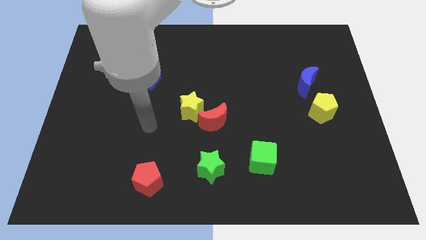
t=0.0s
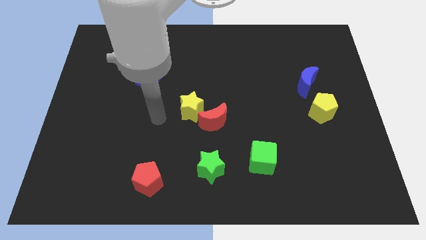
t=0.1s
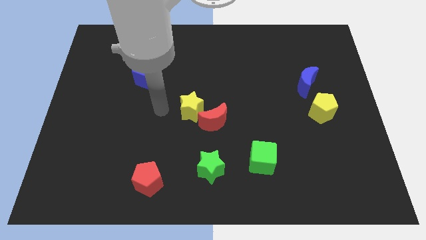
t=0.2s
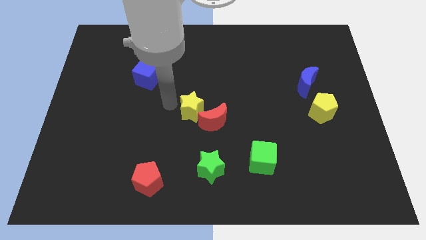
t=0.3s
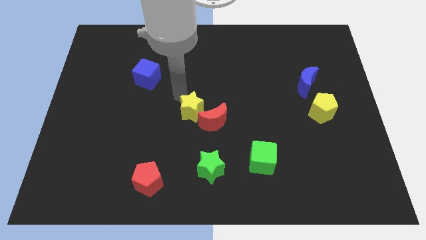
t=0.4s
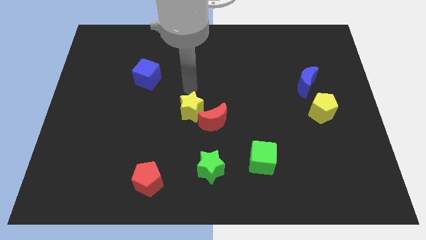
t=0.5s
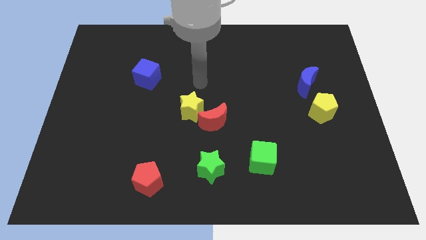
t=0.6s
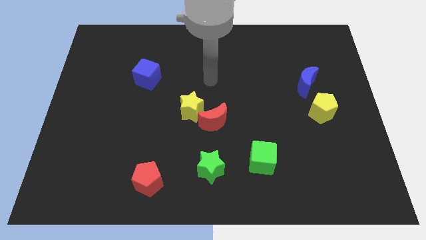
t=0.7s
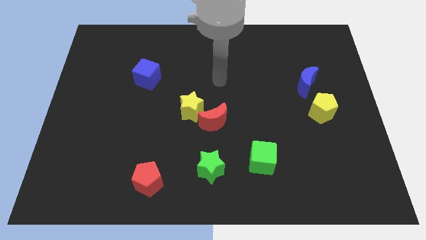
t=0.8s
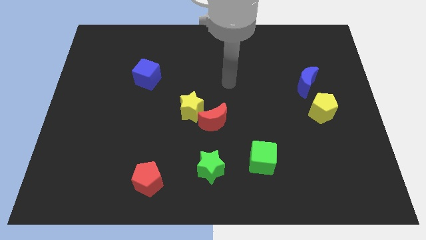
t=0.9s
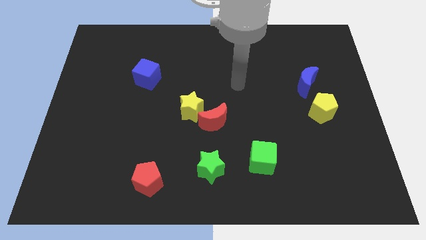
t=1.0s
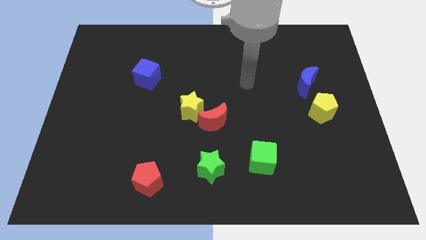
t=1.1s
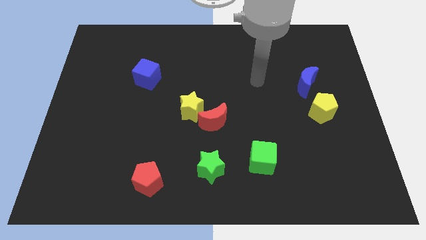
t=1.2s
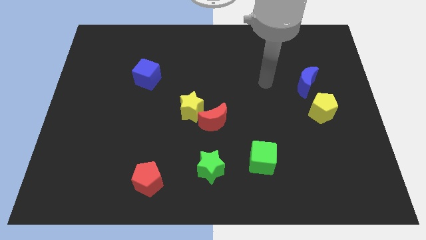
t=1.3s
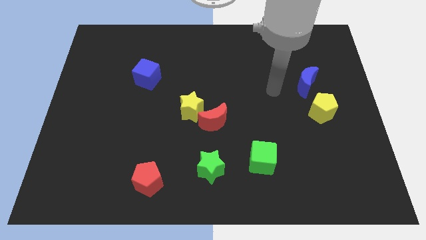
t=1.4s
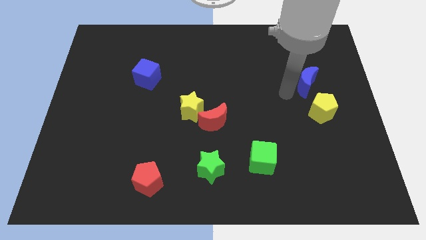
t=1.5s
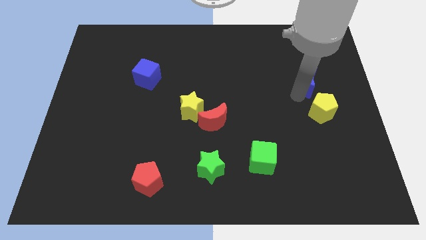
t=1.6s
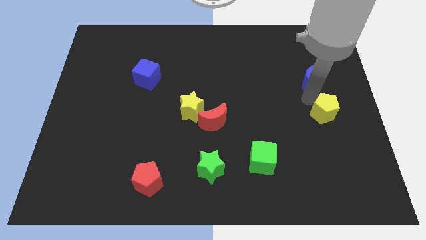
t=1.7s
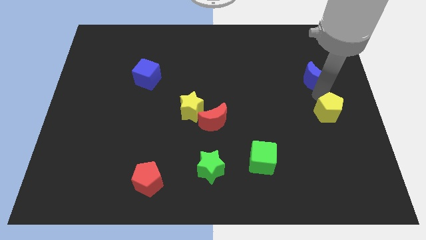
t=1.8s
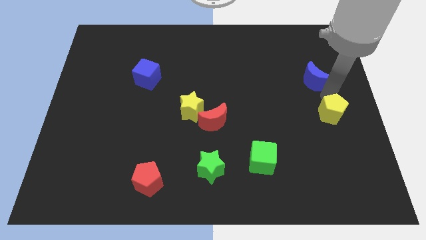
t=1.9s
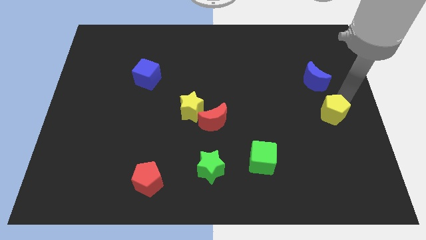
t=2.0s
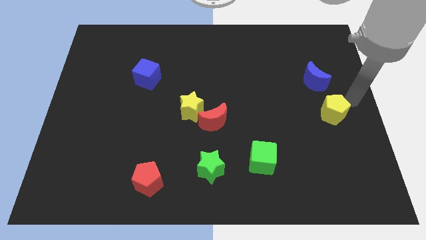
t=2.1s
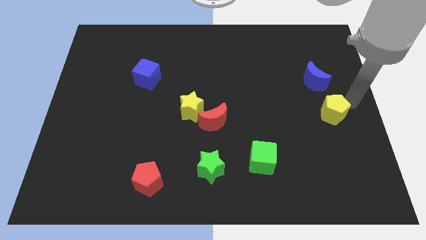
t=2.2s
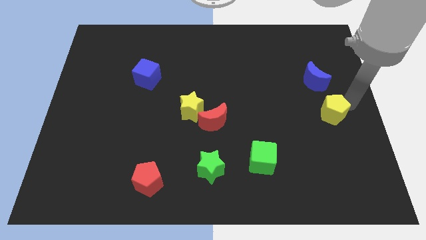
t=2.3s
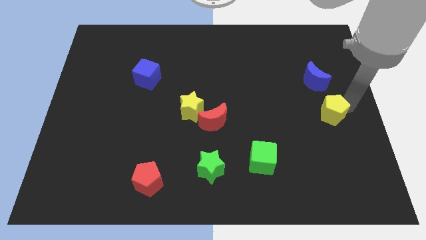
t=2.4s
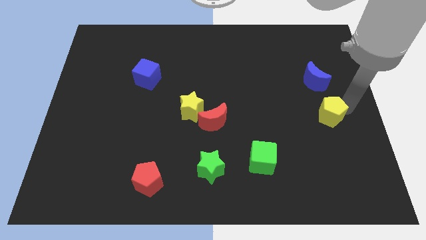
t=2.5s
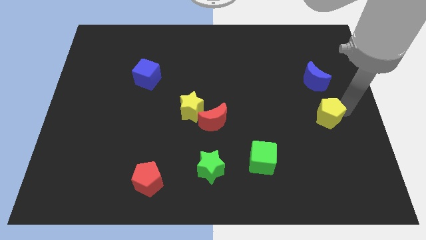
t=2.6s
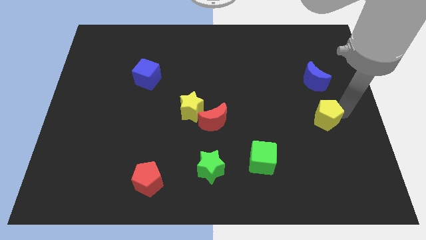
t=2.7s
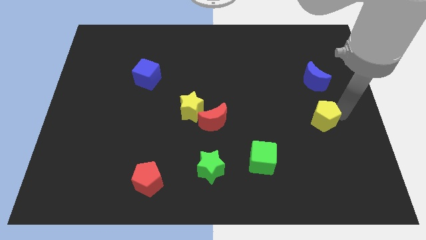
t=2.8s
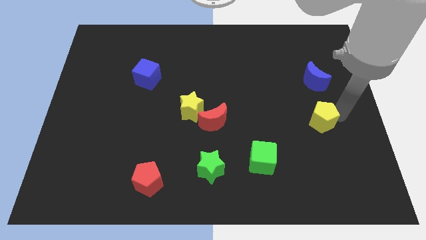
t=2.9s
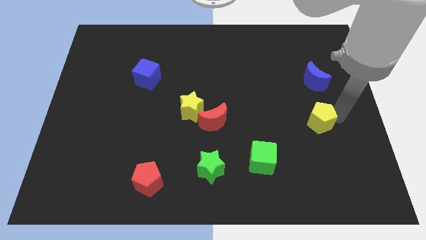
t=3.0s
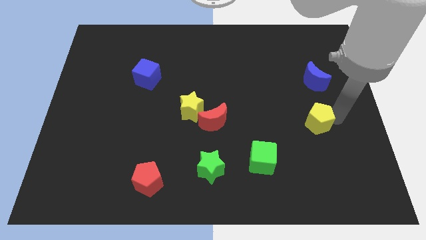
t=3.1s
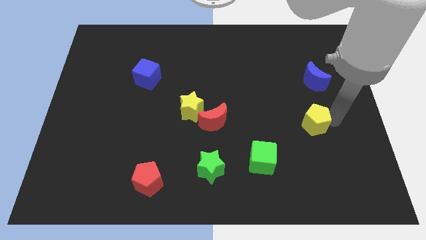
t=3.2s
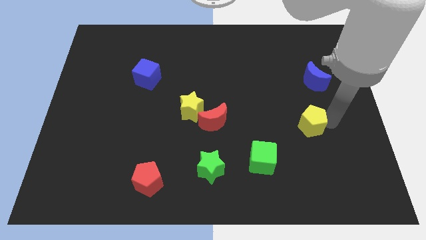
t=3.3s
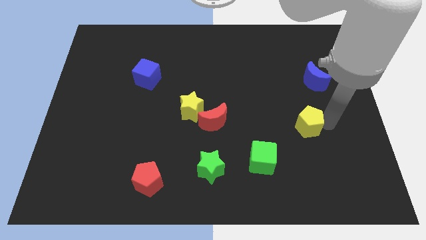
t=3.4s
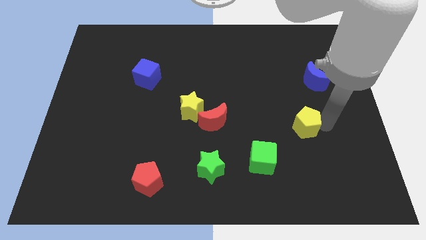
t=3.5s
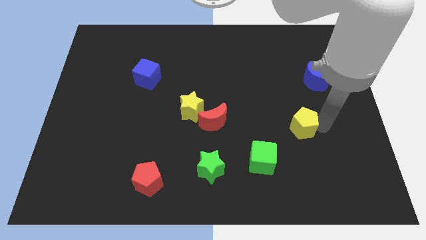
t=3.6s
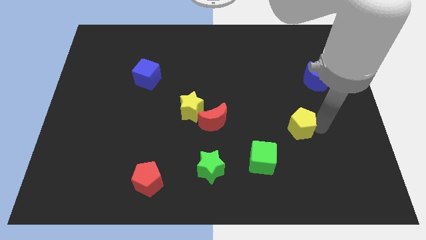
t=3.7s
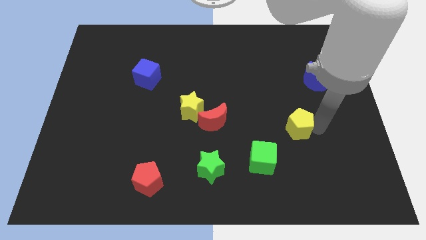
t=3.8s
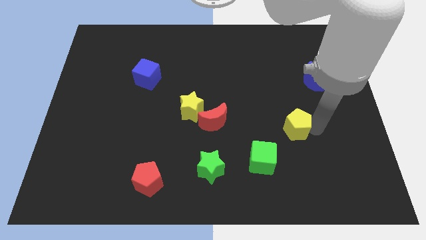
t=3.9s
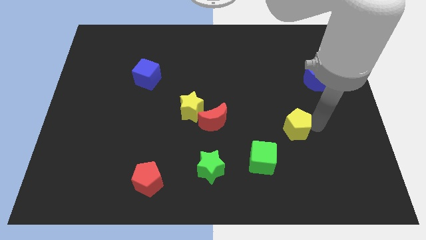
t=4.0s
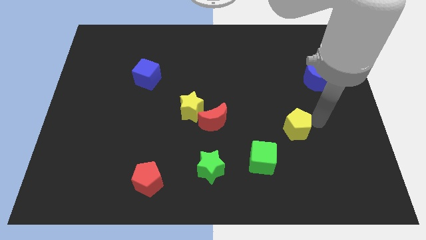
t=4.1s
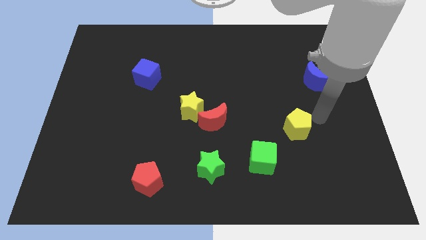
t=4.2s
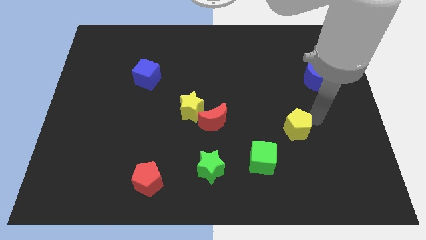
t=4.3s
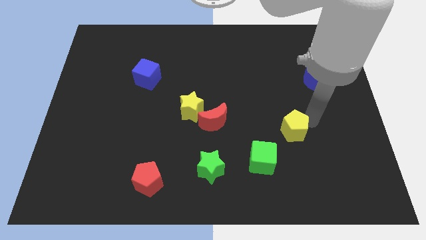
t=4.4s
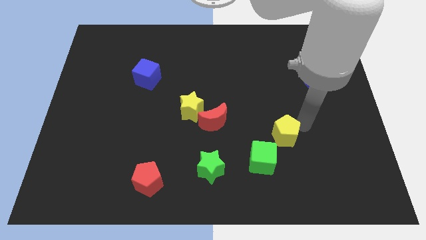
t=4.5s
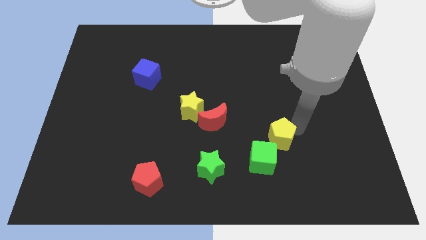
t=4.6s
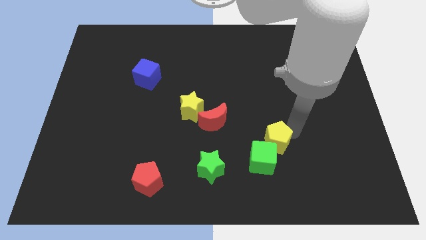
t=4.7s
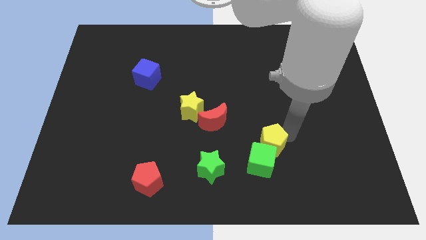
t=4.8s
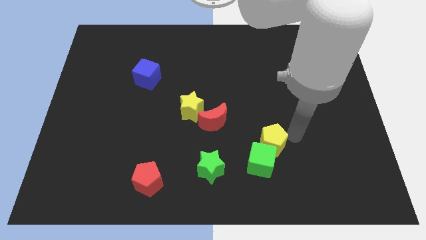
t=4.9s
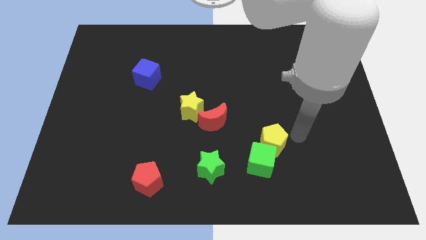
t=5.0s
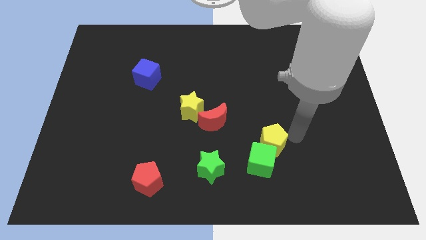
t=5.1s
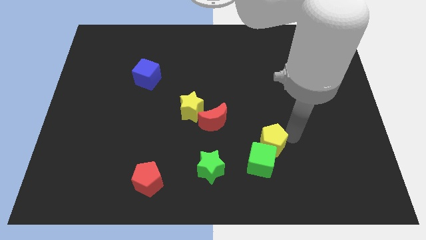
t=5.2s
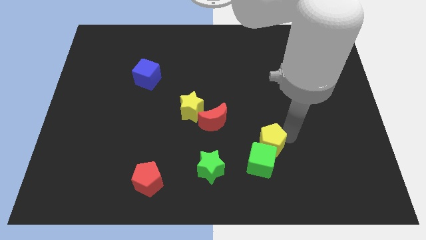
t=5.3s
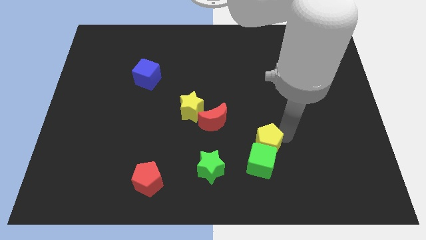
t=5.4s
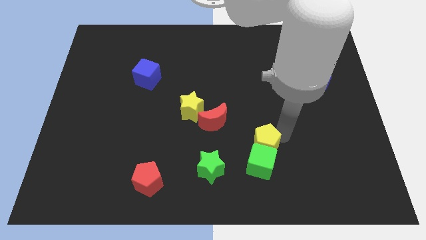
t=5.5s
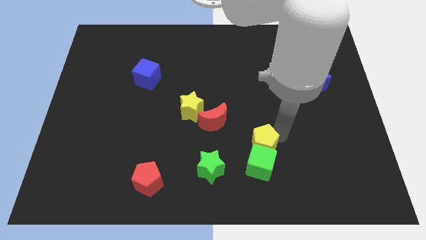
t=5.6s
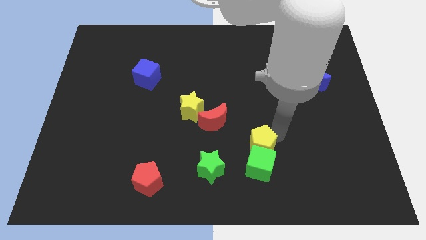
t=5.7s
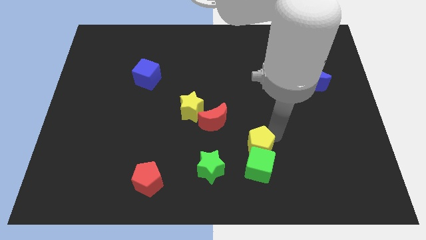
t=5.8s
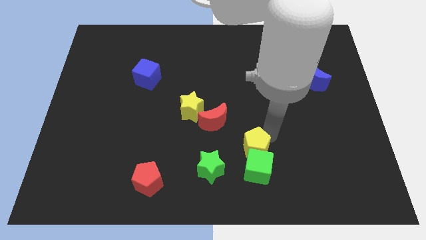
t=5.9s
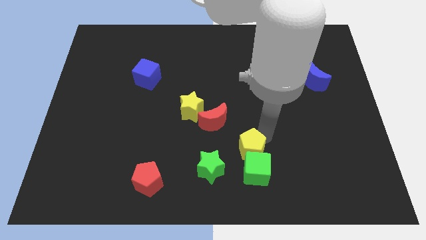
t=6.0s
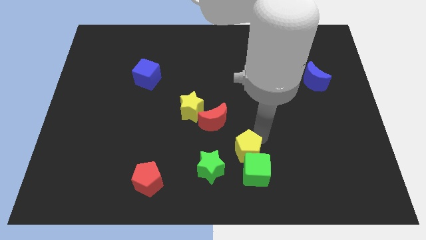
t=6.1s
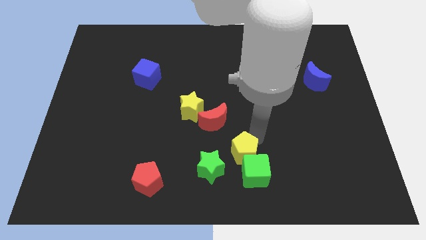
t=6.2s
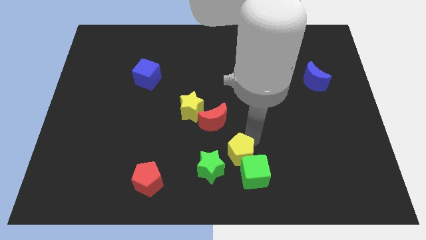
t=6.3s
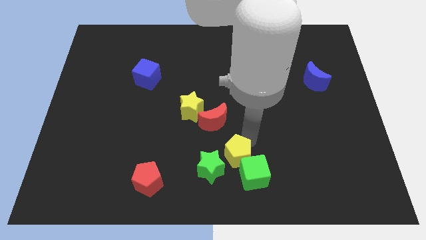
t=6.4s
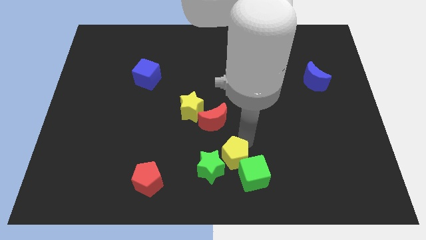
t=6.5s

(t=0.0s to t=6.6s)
push the yellow pentagon to the green star

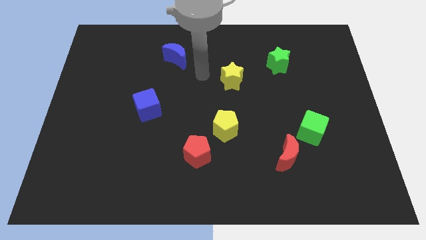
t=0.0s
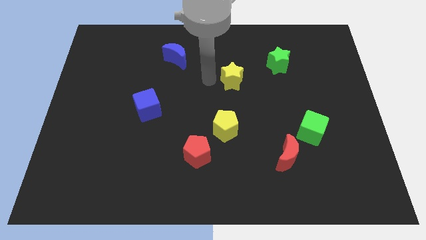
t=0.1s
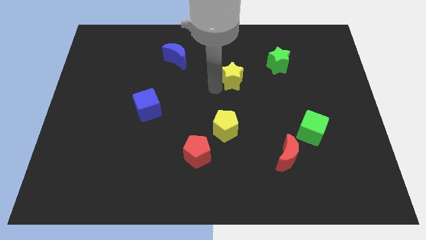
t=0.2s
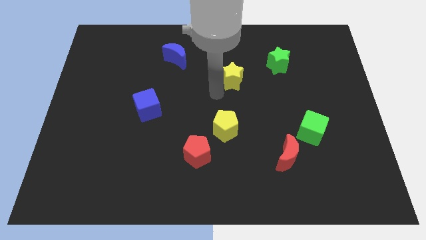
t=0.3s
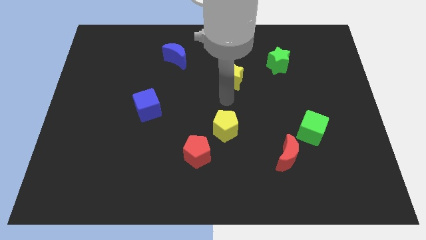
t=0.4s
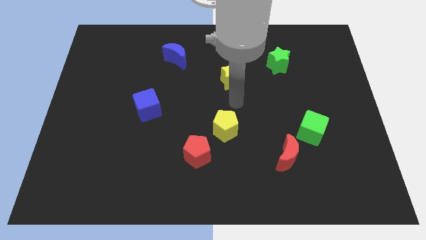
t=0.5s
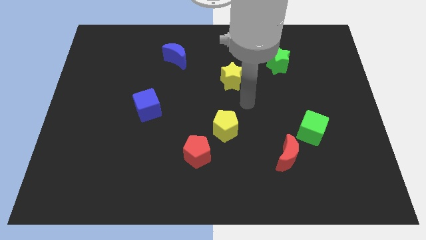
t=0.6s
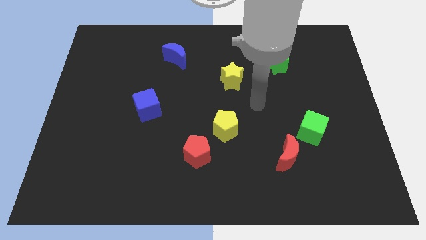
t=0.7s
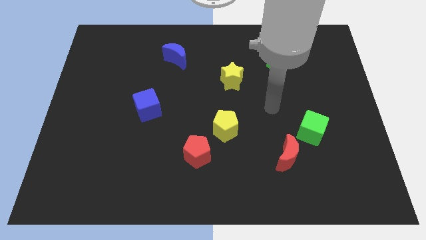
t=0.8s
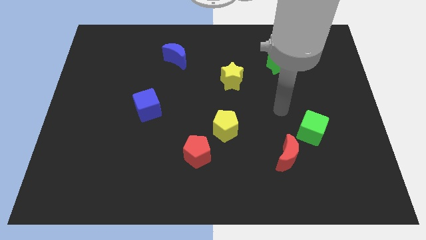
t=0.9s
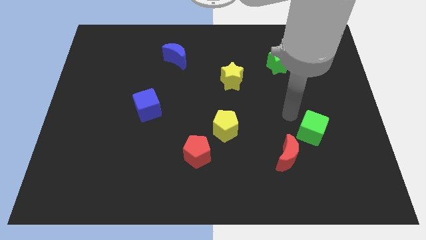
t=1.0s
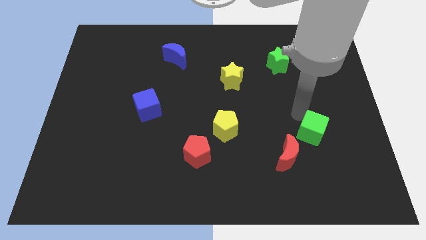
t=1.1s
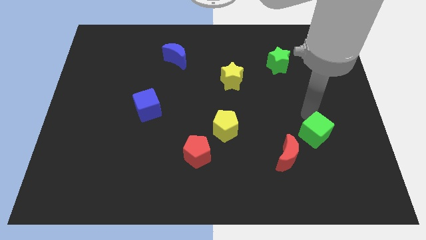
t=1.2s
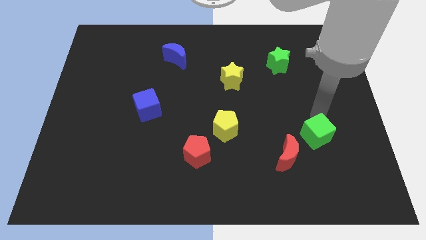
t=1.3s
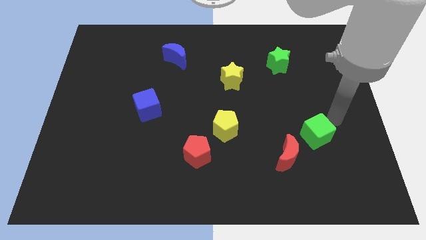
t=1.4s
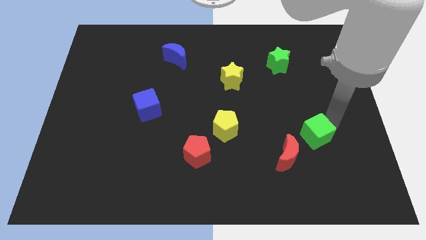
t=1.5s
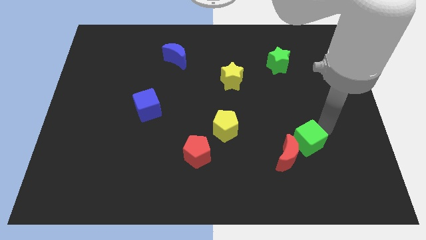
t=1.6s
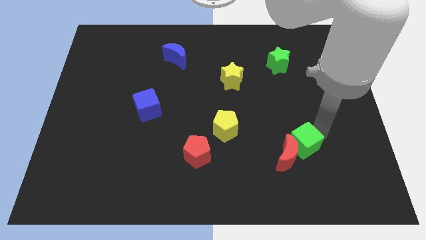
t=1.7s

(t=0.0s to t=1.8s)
push the green cube close to the red moon
